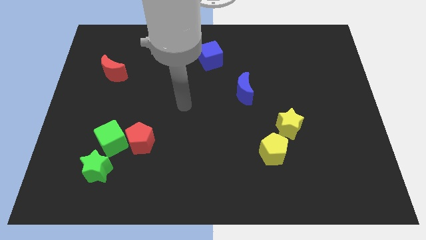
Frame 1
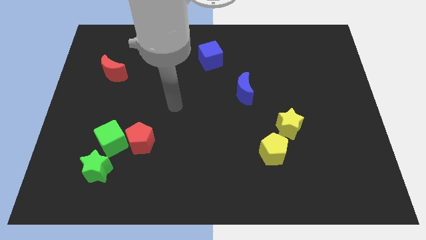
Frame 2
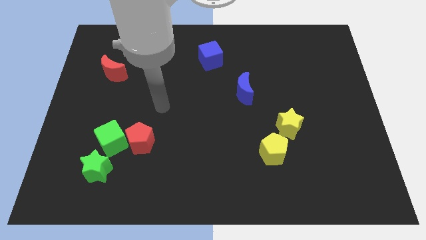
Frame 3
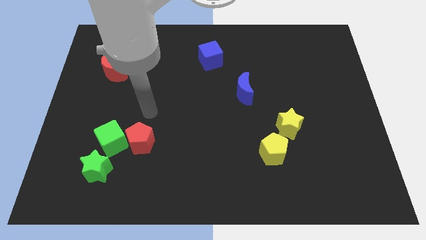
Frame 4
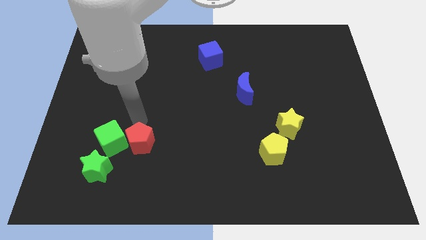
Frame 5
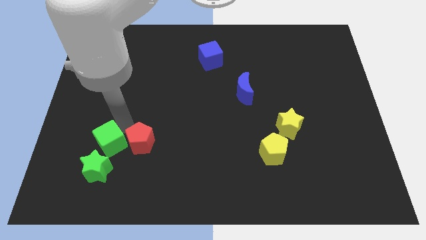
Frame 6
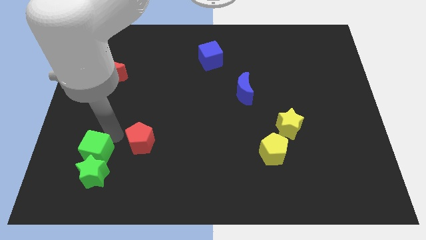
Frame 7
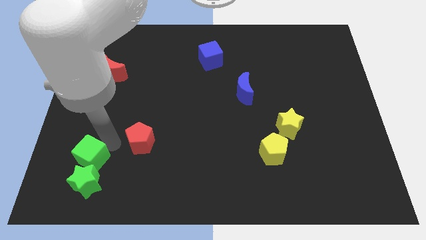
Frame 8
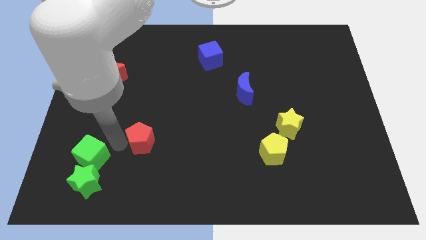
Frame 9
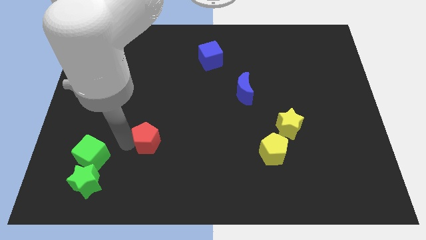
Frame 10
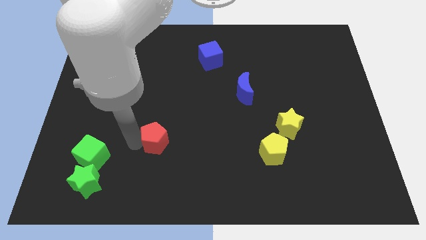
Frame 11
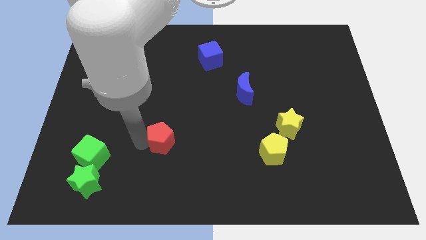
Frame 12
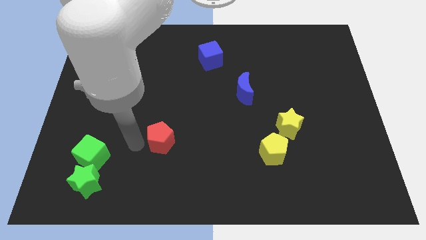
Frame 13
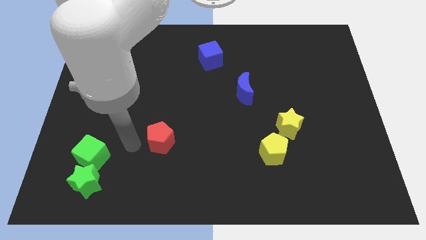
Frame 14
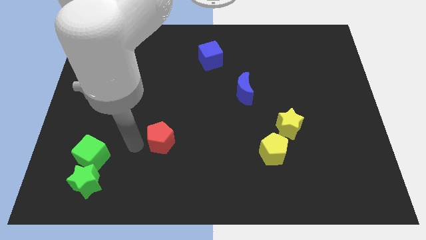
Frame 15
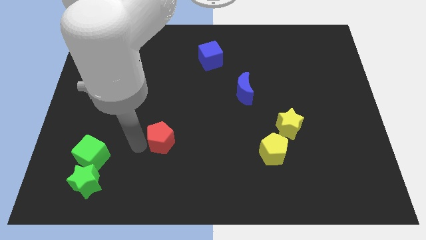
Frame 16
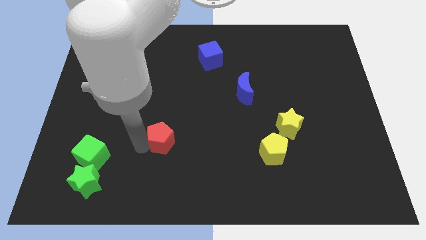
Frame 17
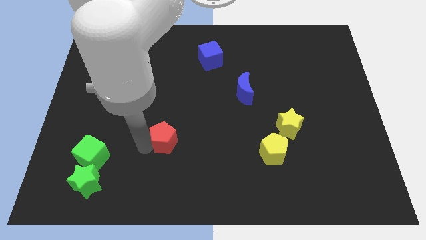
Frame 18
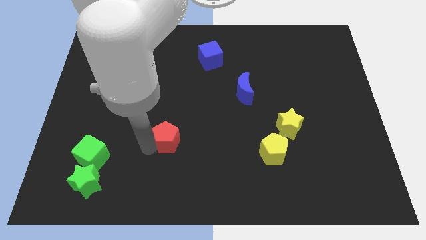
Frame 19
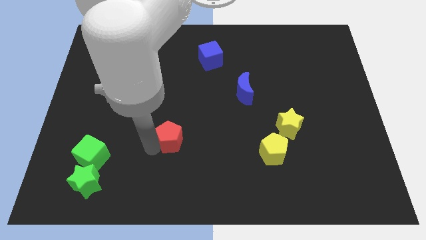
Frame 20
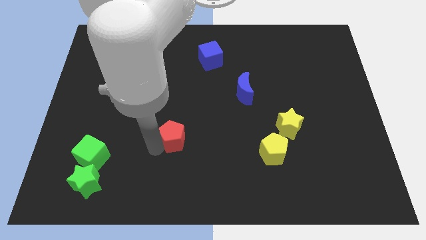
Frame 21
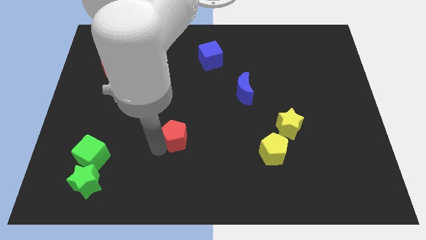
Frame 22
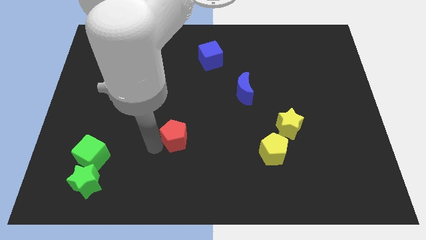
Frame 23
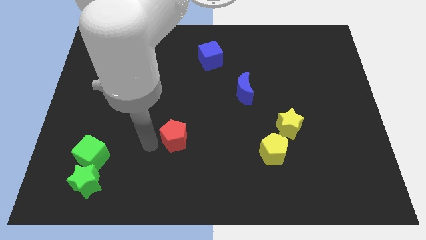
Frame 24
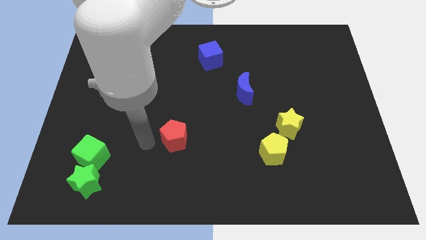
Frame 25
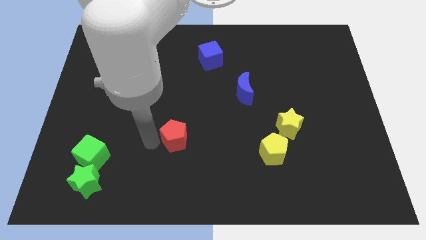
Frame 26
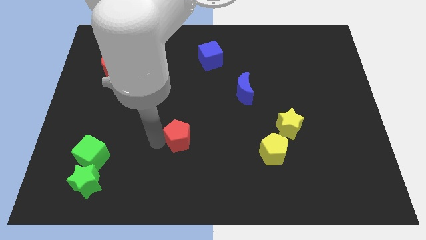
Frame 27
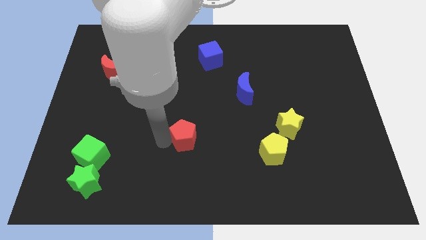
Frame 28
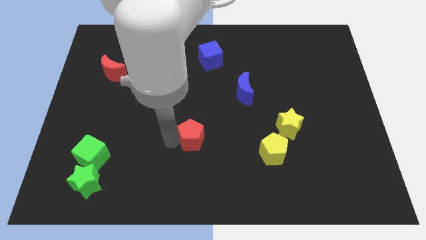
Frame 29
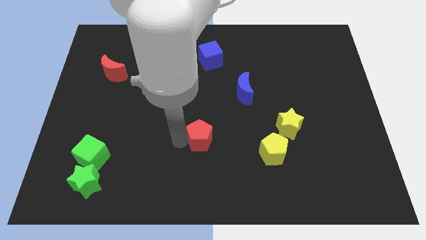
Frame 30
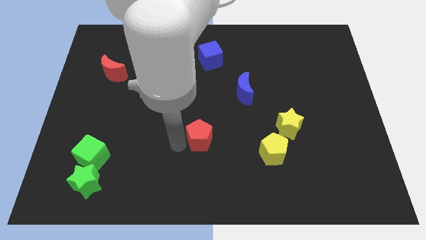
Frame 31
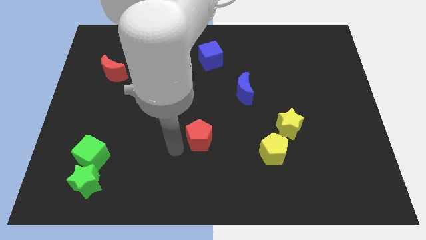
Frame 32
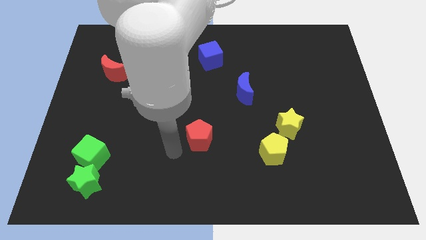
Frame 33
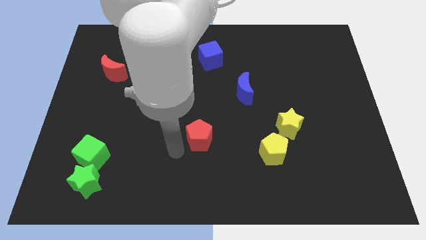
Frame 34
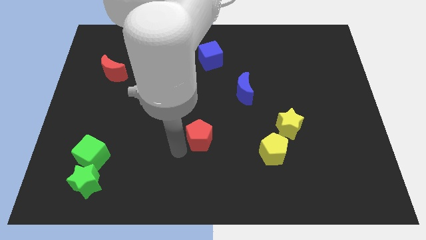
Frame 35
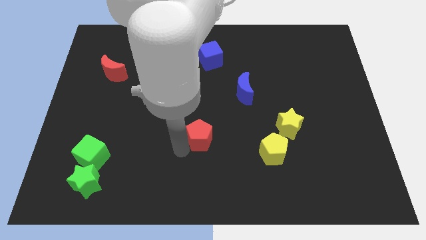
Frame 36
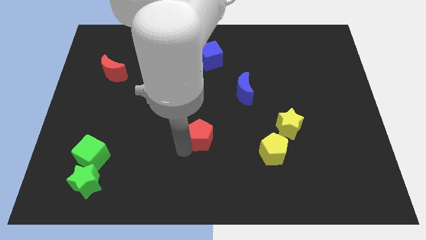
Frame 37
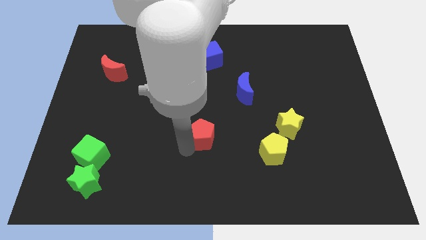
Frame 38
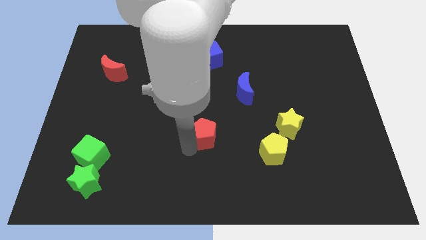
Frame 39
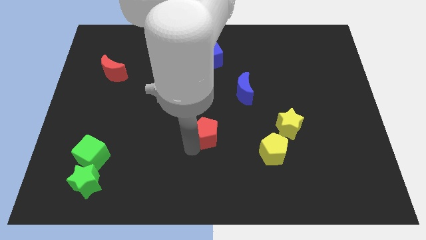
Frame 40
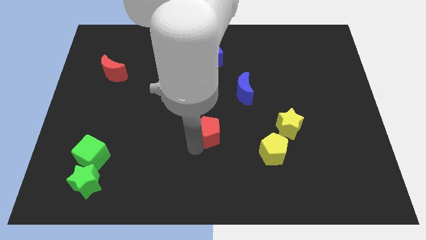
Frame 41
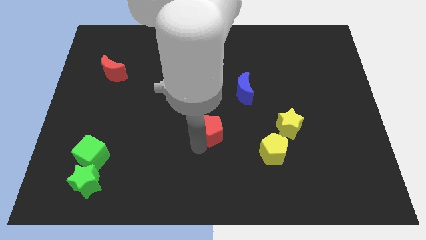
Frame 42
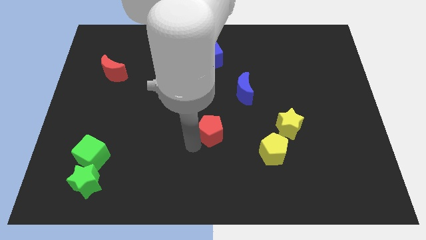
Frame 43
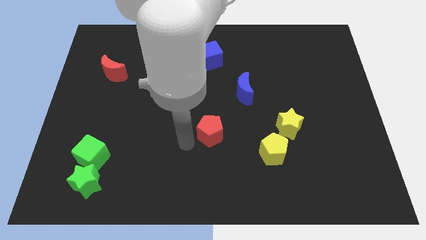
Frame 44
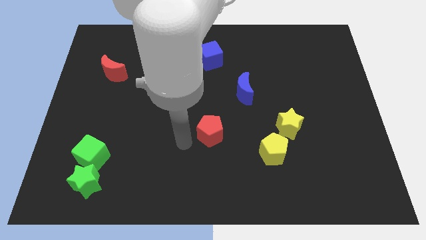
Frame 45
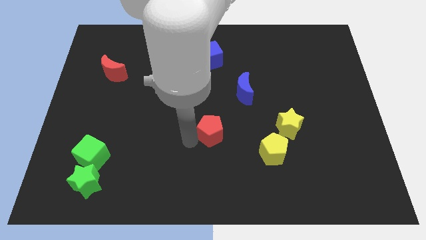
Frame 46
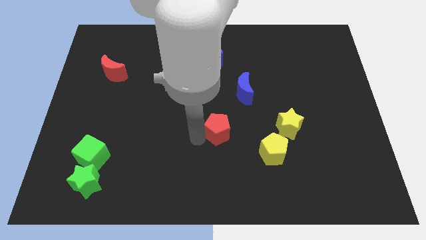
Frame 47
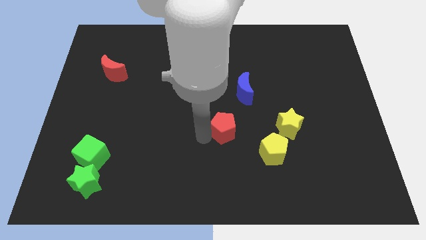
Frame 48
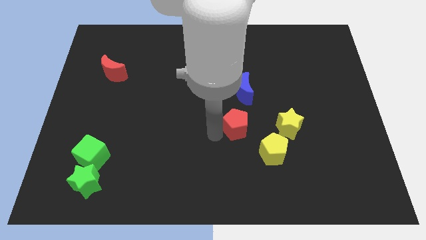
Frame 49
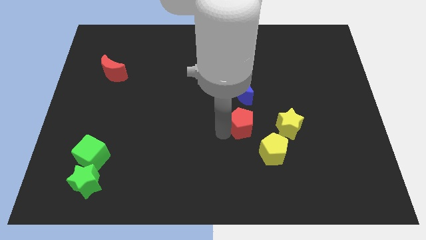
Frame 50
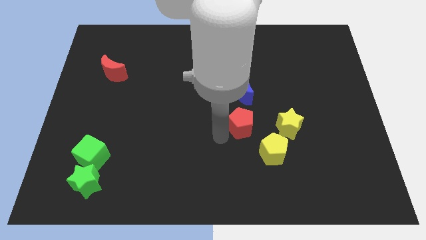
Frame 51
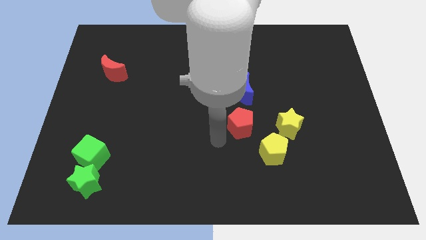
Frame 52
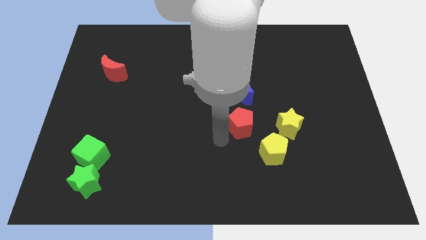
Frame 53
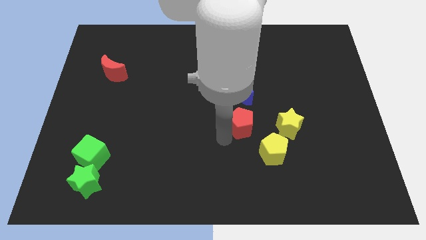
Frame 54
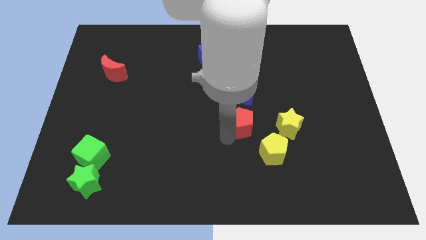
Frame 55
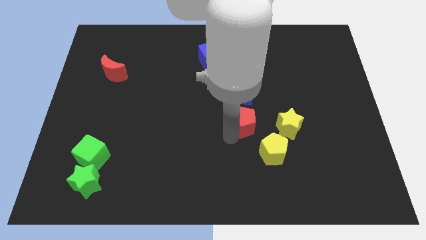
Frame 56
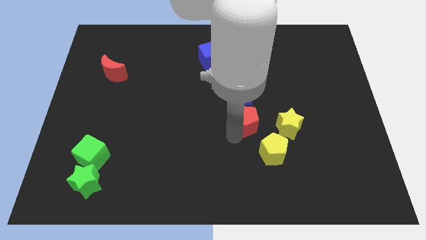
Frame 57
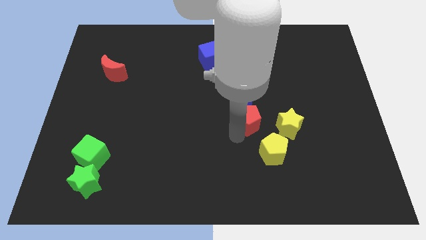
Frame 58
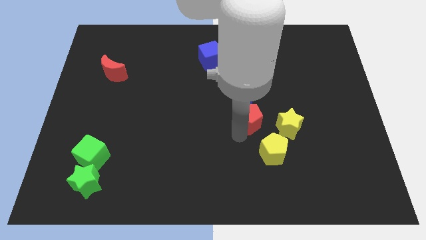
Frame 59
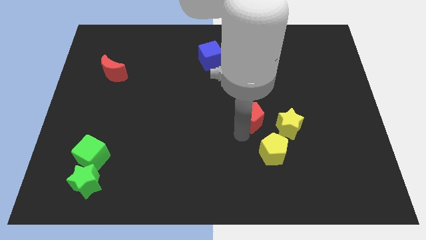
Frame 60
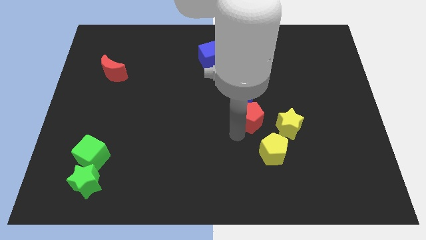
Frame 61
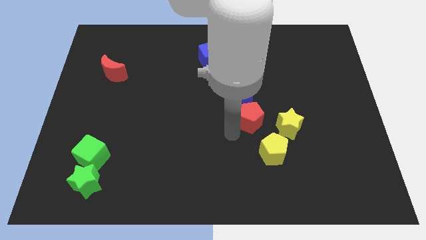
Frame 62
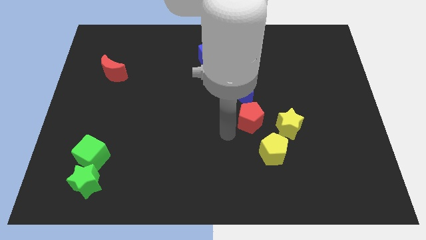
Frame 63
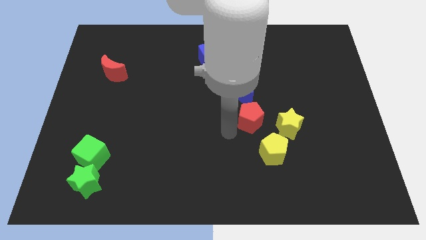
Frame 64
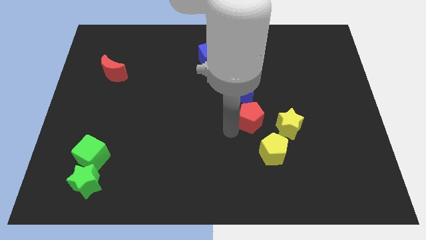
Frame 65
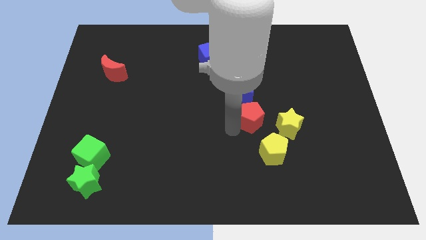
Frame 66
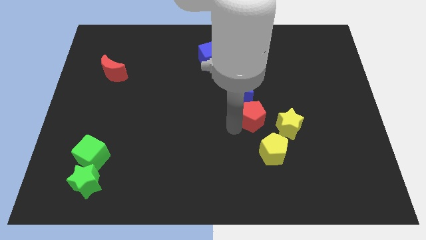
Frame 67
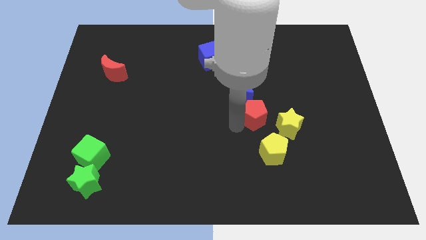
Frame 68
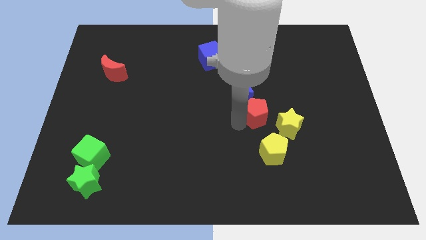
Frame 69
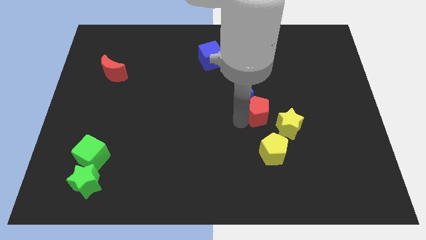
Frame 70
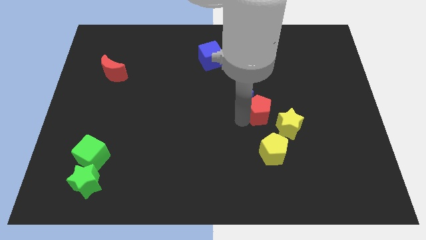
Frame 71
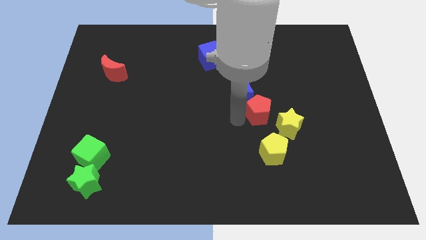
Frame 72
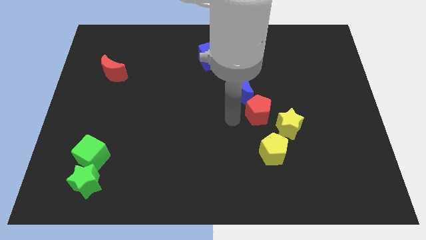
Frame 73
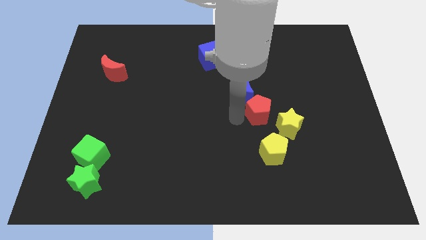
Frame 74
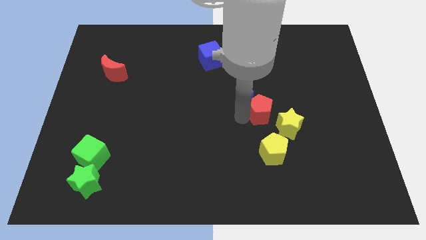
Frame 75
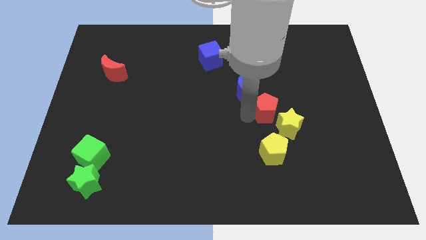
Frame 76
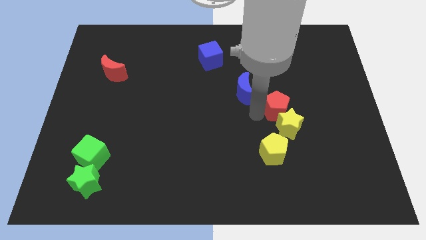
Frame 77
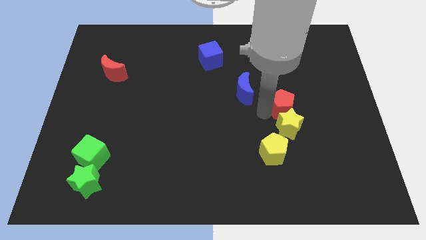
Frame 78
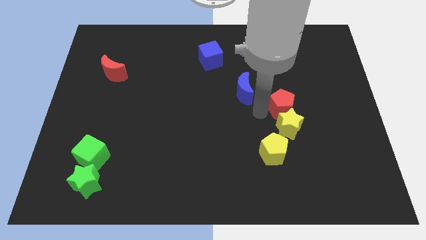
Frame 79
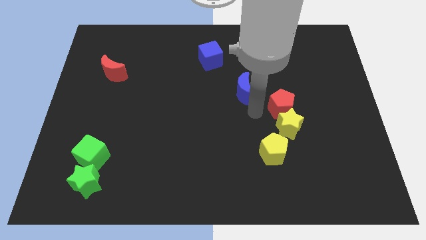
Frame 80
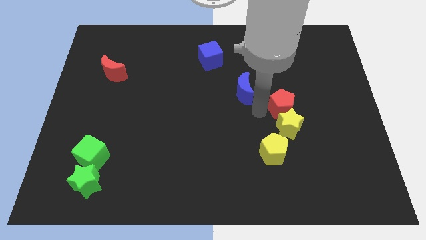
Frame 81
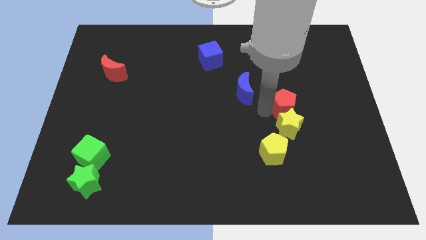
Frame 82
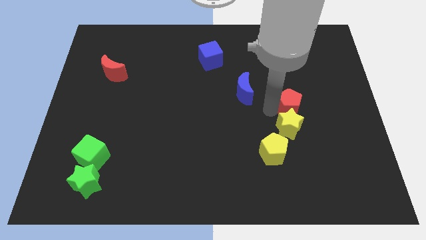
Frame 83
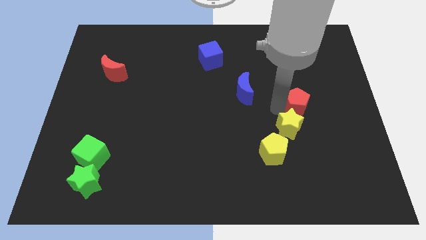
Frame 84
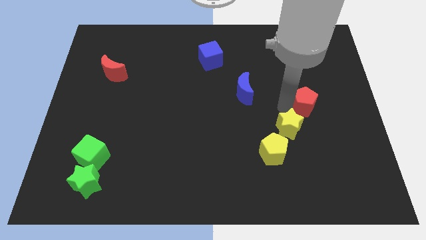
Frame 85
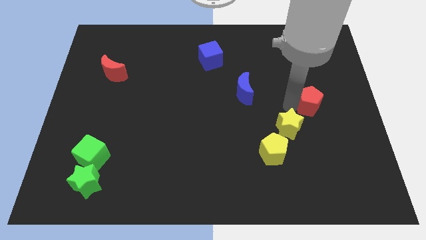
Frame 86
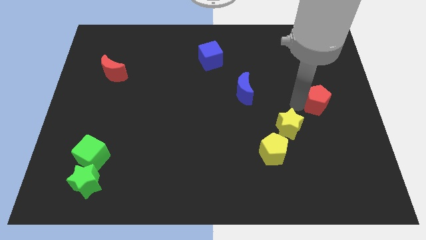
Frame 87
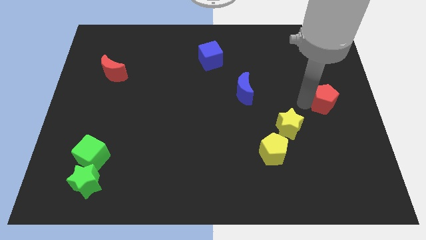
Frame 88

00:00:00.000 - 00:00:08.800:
put the red pentagon to the center right
